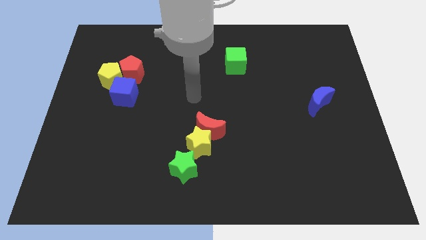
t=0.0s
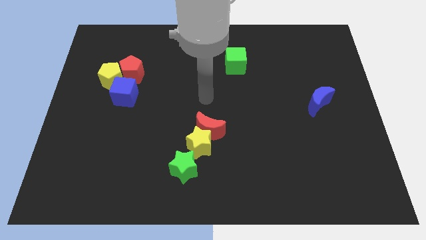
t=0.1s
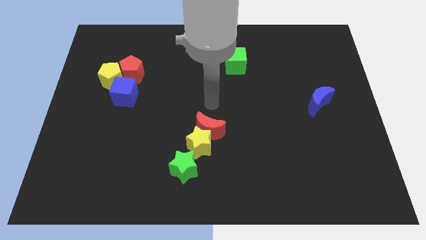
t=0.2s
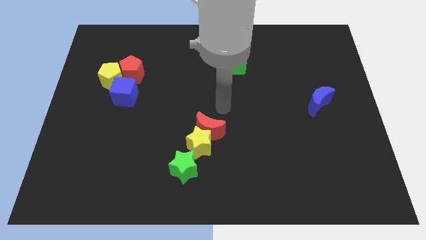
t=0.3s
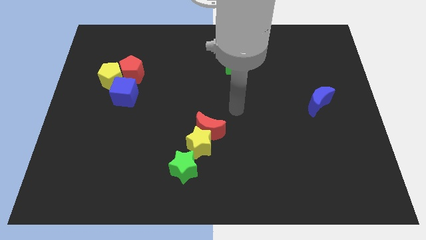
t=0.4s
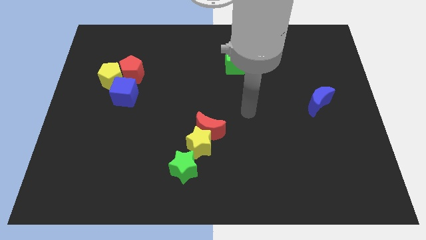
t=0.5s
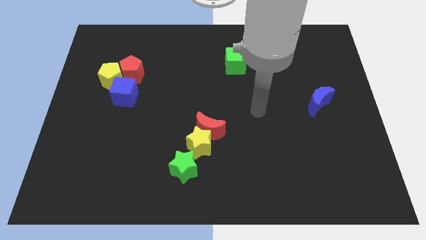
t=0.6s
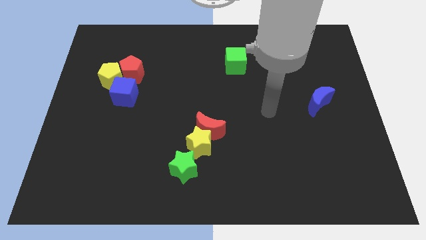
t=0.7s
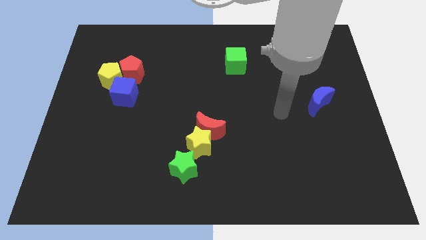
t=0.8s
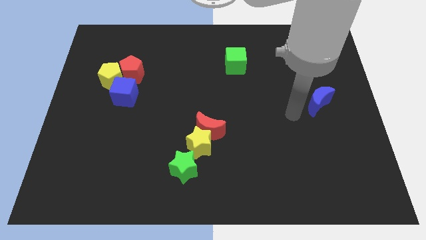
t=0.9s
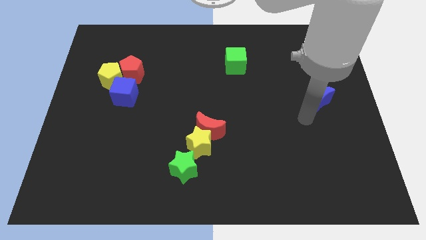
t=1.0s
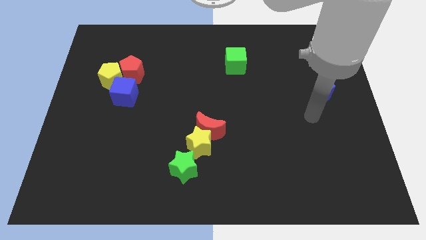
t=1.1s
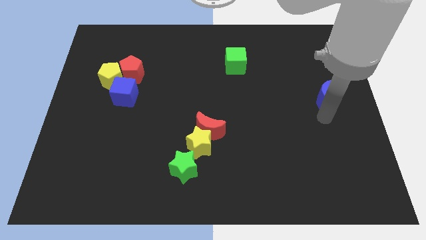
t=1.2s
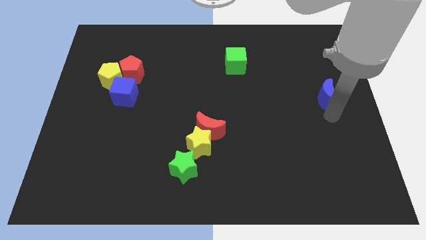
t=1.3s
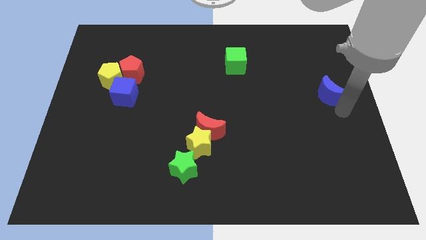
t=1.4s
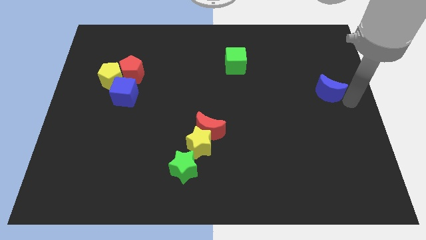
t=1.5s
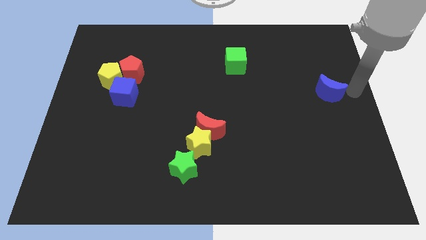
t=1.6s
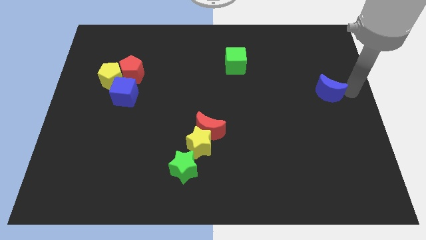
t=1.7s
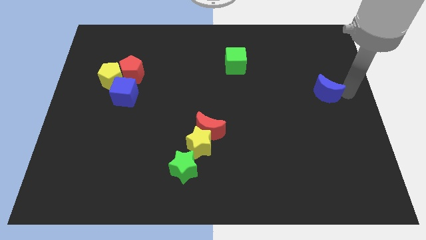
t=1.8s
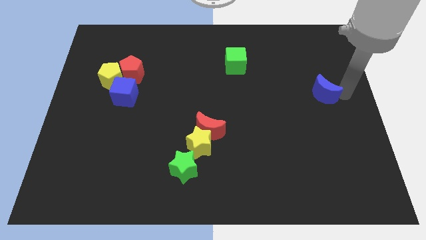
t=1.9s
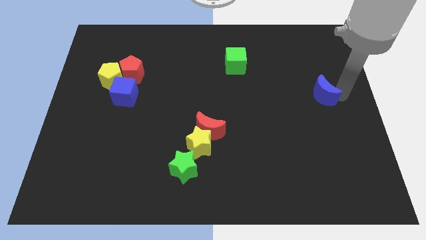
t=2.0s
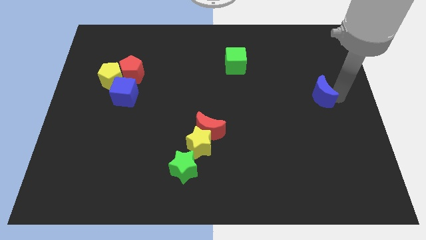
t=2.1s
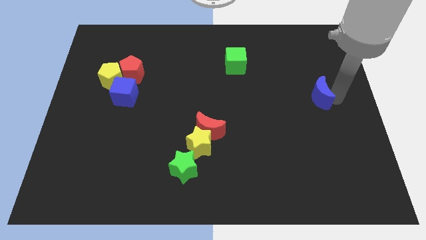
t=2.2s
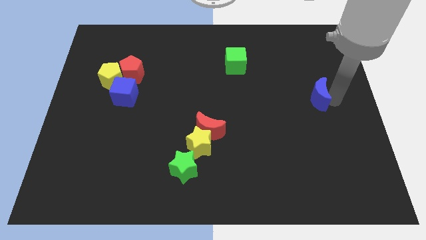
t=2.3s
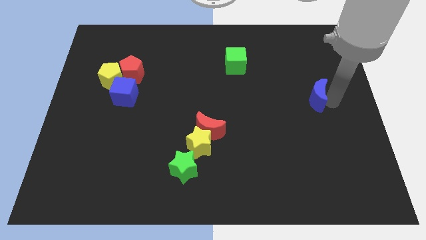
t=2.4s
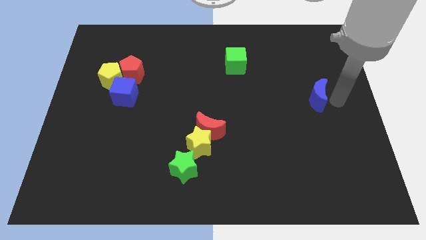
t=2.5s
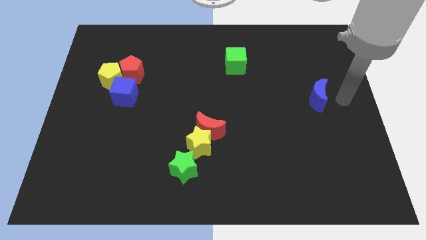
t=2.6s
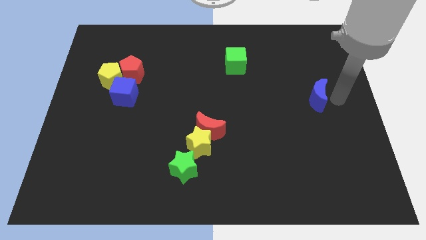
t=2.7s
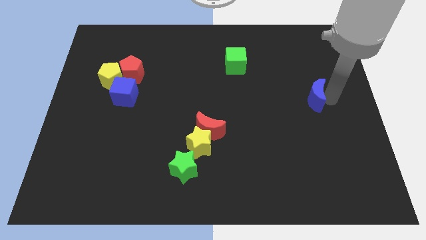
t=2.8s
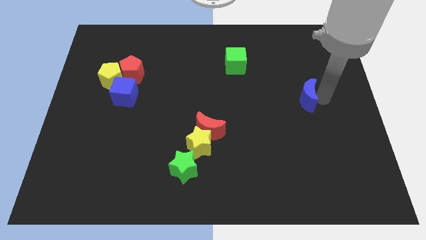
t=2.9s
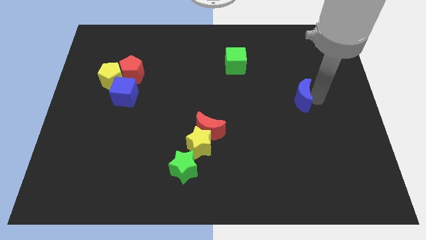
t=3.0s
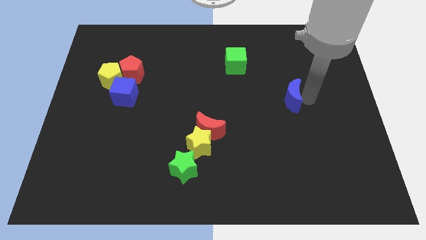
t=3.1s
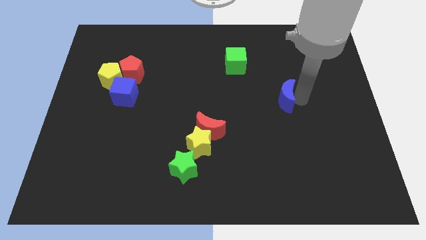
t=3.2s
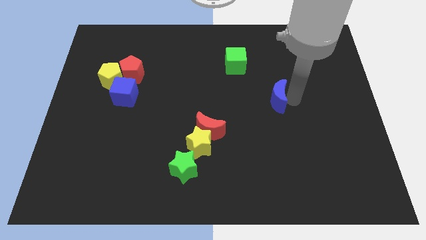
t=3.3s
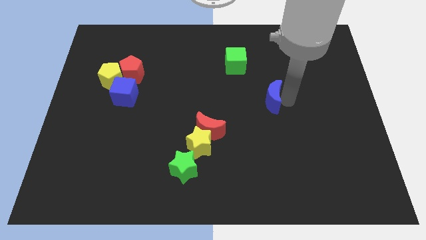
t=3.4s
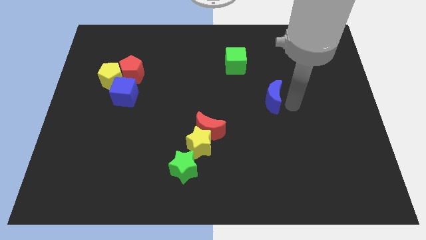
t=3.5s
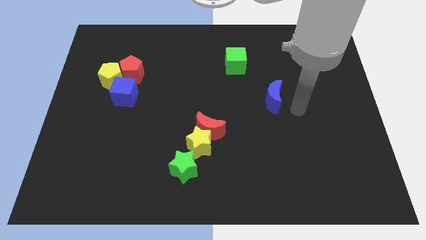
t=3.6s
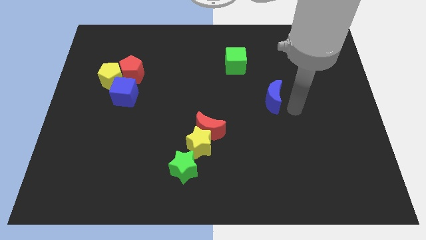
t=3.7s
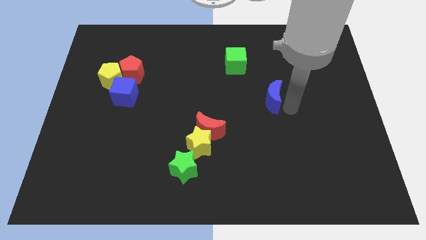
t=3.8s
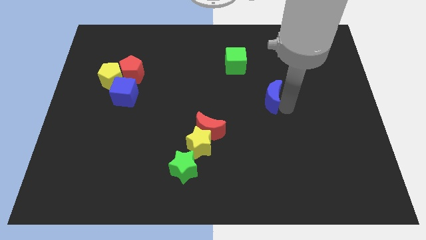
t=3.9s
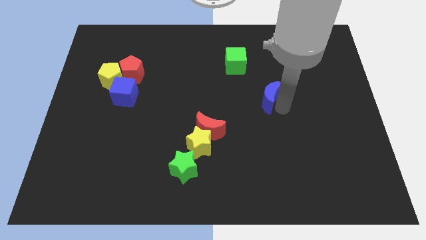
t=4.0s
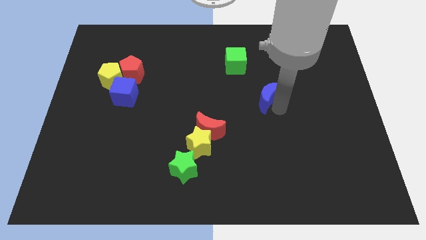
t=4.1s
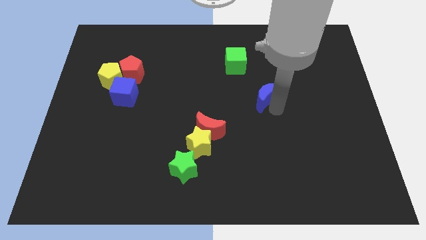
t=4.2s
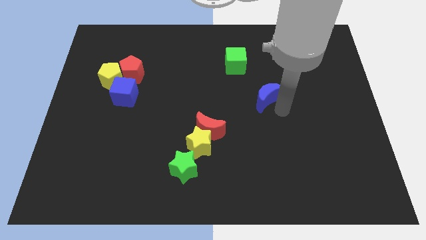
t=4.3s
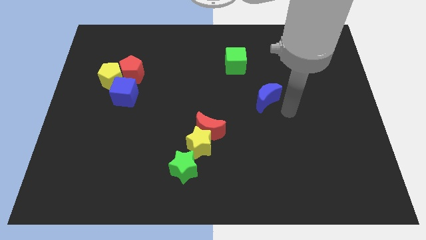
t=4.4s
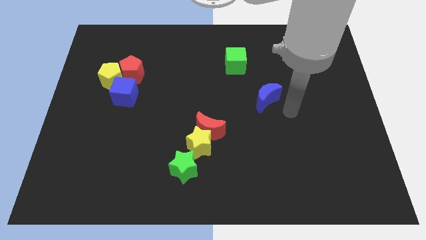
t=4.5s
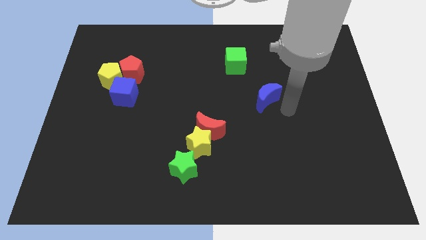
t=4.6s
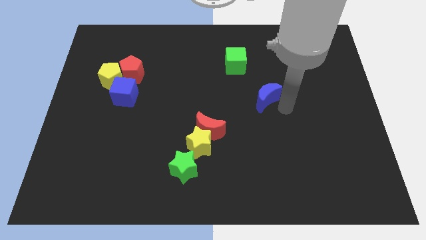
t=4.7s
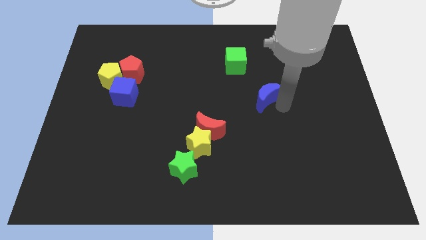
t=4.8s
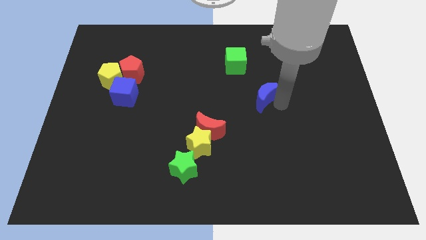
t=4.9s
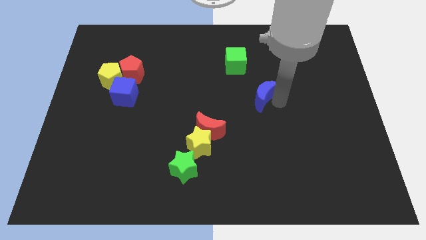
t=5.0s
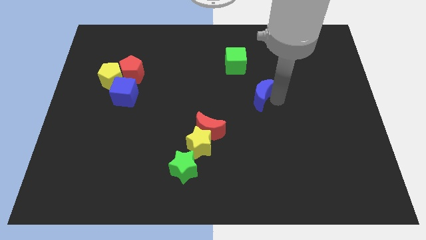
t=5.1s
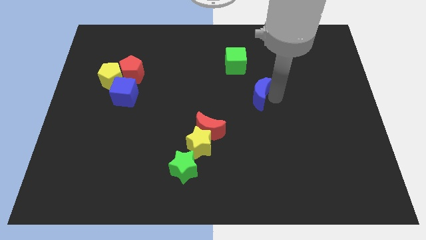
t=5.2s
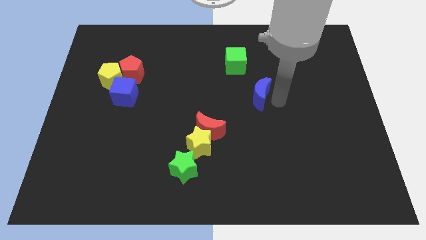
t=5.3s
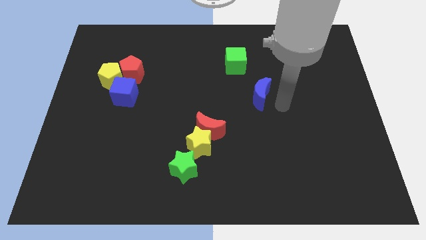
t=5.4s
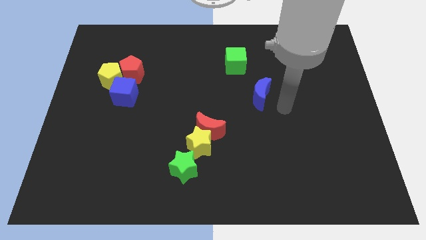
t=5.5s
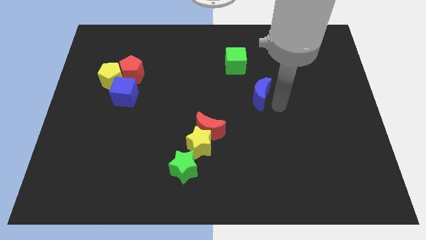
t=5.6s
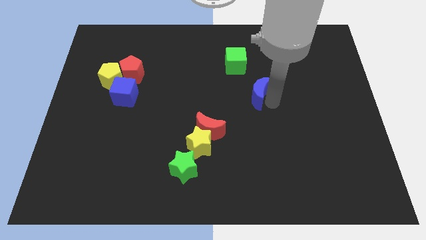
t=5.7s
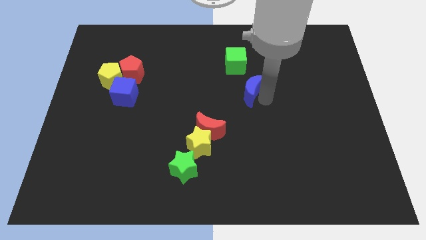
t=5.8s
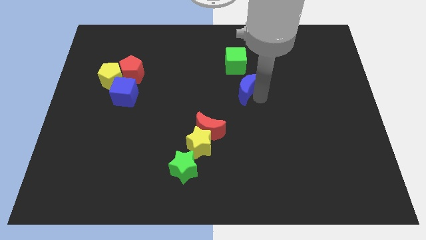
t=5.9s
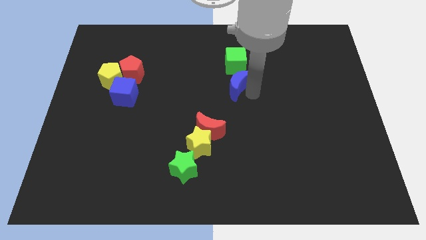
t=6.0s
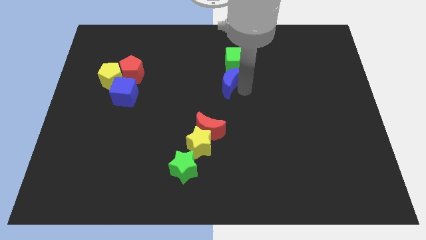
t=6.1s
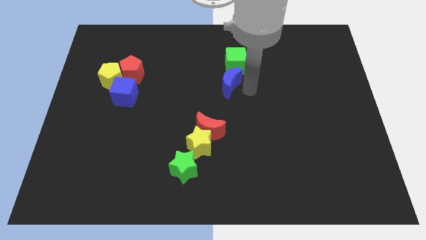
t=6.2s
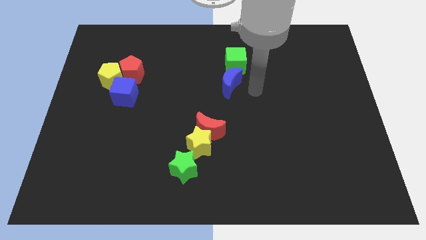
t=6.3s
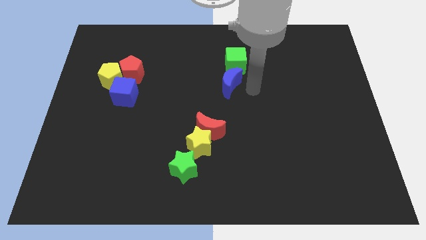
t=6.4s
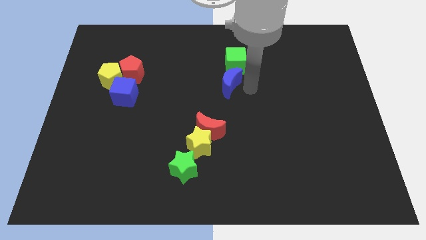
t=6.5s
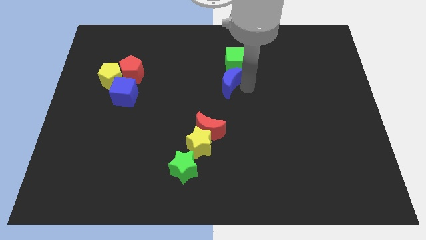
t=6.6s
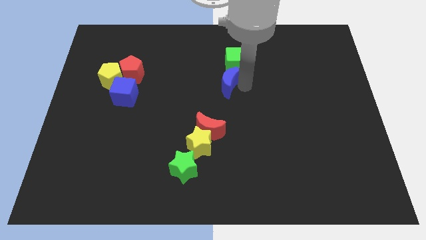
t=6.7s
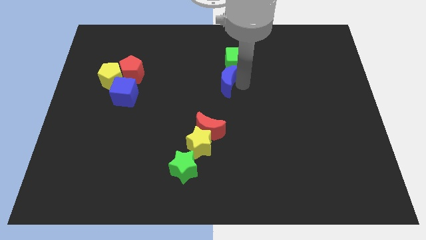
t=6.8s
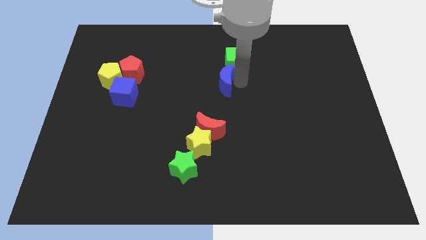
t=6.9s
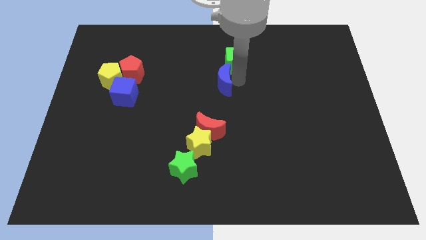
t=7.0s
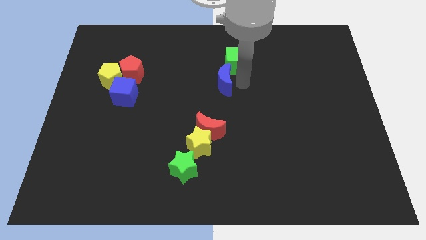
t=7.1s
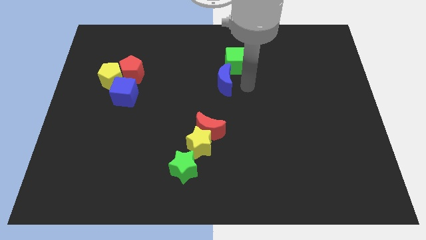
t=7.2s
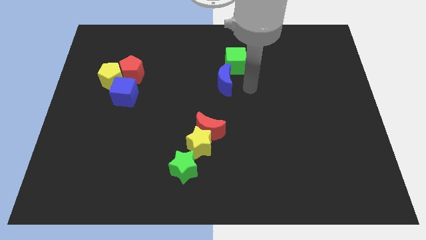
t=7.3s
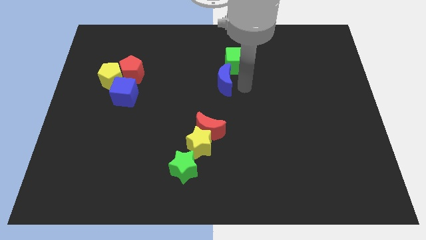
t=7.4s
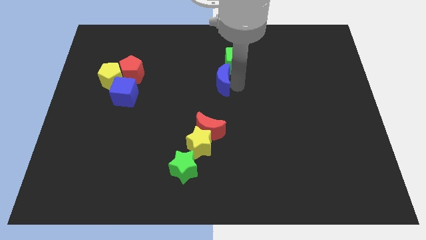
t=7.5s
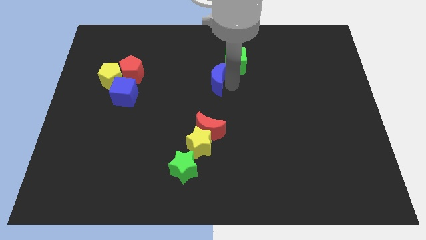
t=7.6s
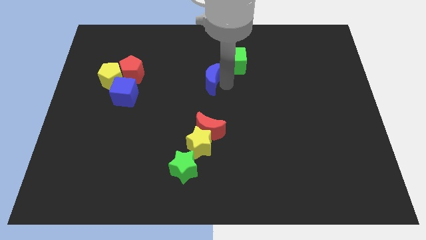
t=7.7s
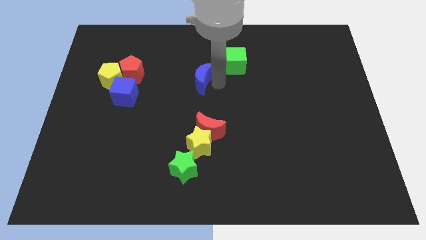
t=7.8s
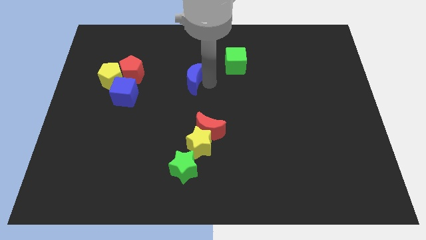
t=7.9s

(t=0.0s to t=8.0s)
slide the blue moon to the right side of the red pentagon
